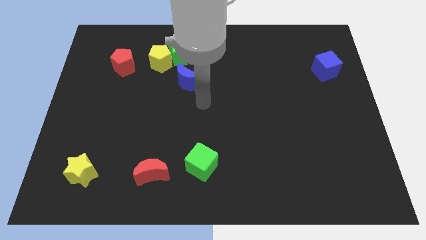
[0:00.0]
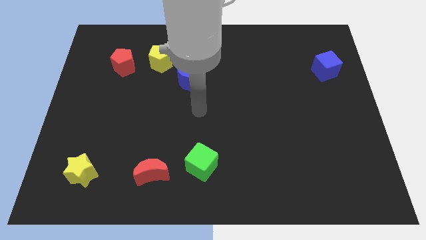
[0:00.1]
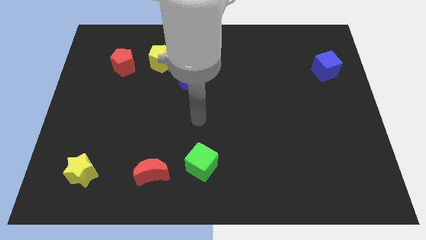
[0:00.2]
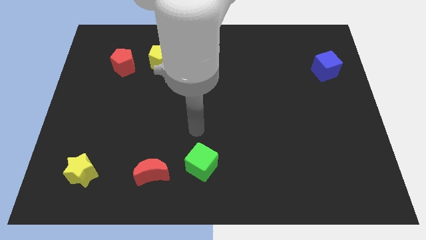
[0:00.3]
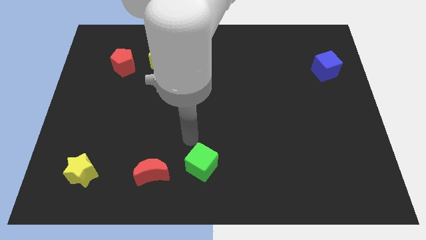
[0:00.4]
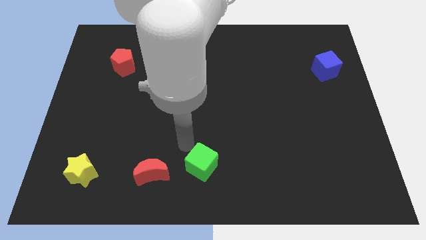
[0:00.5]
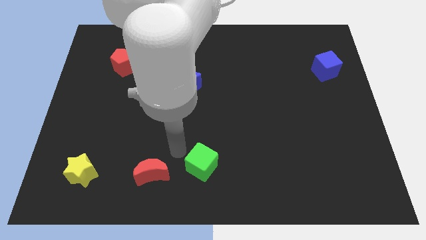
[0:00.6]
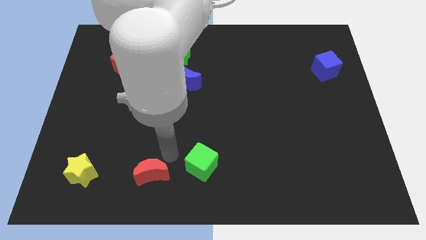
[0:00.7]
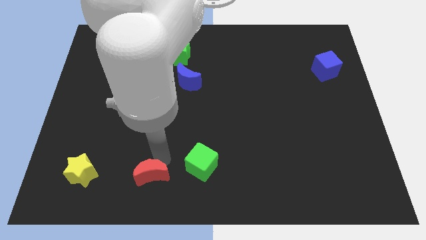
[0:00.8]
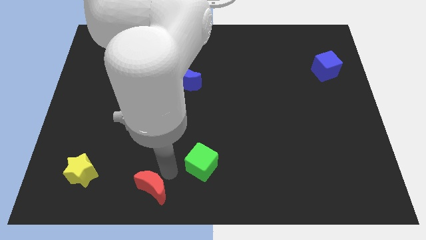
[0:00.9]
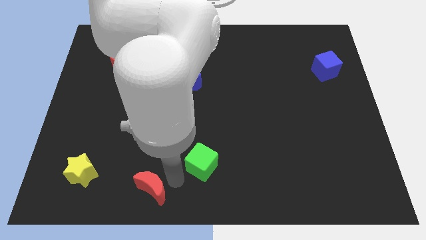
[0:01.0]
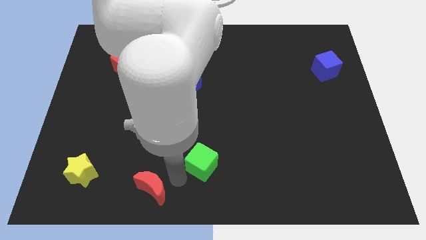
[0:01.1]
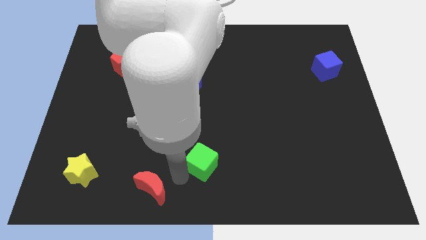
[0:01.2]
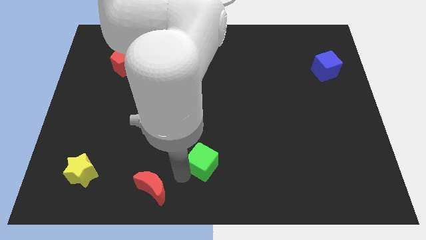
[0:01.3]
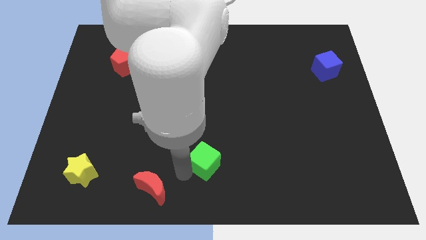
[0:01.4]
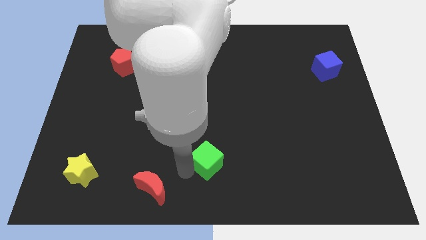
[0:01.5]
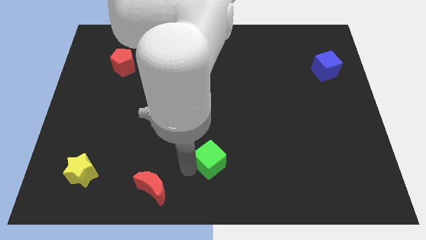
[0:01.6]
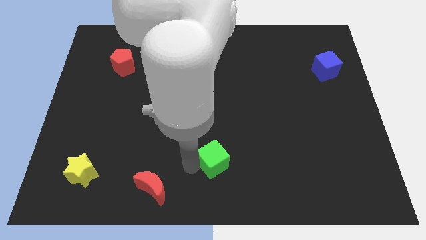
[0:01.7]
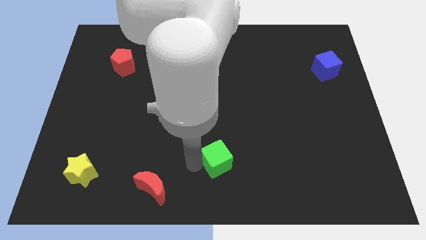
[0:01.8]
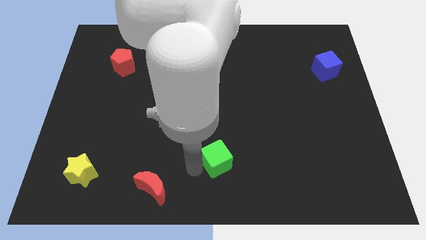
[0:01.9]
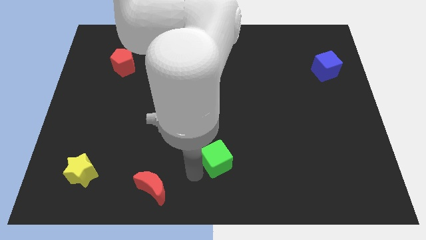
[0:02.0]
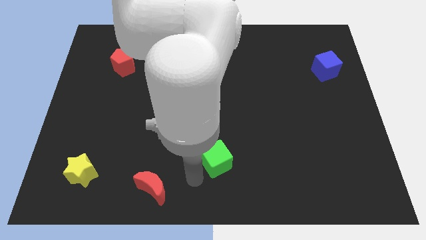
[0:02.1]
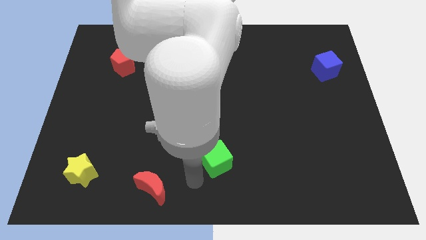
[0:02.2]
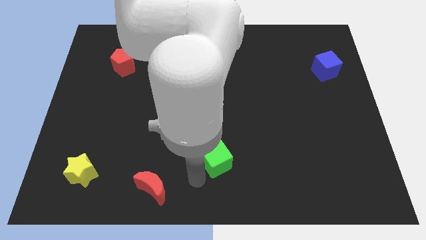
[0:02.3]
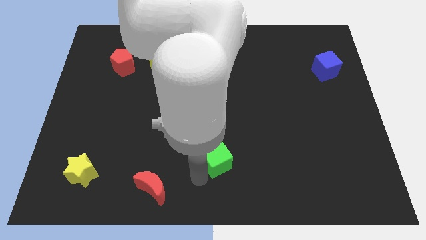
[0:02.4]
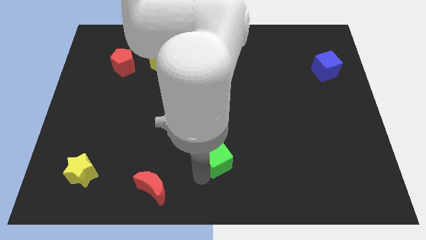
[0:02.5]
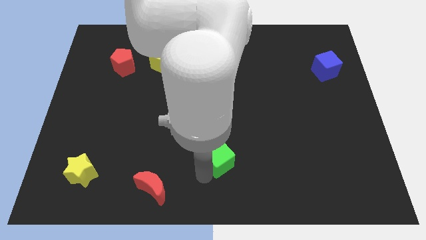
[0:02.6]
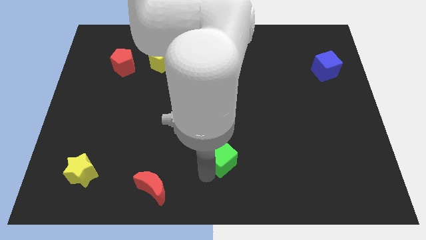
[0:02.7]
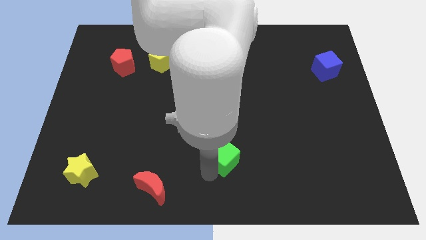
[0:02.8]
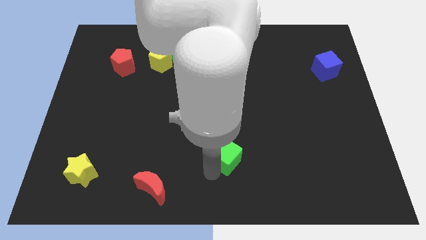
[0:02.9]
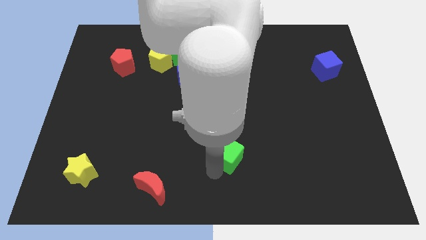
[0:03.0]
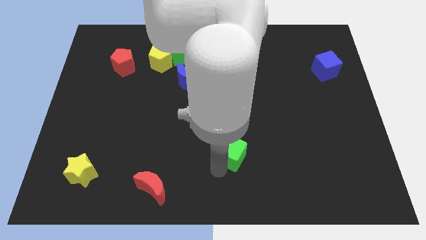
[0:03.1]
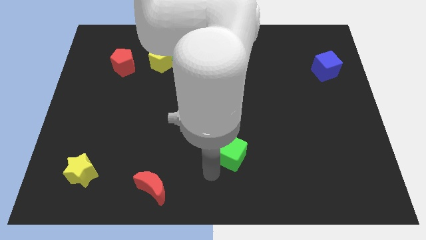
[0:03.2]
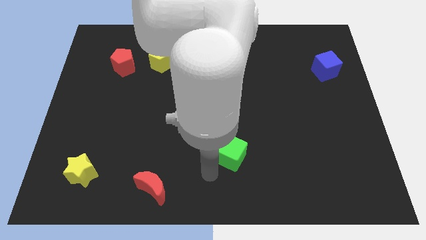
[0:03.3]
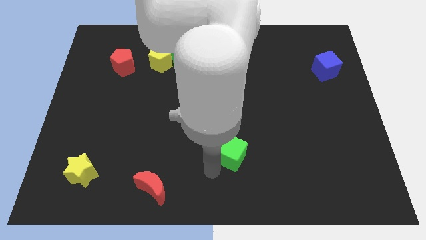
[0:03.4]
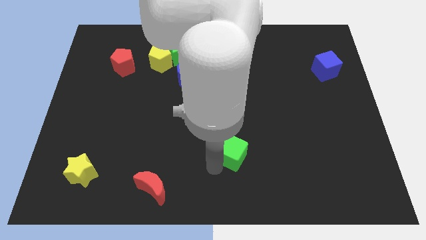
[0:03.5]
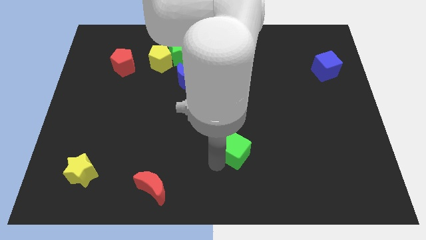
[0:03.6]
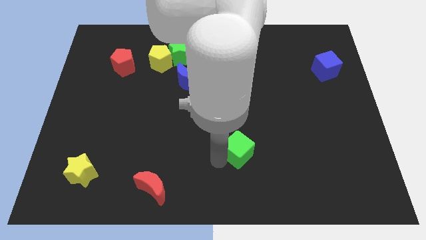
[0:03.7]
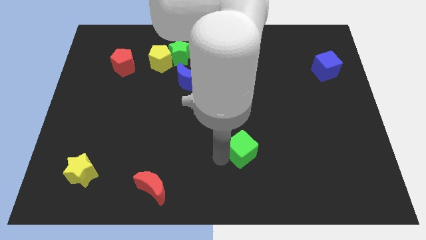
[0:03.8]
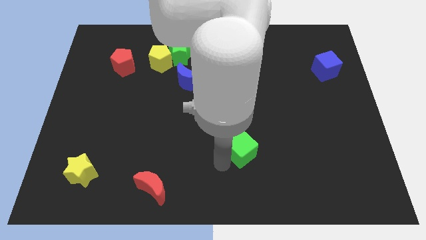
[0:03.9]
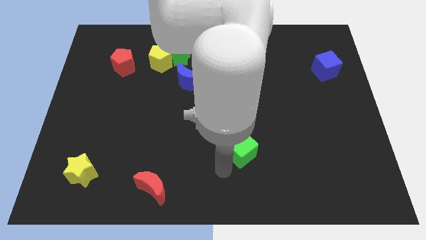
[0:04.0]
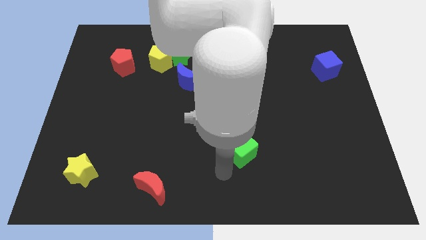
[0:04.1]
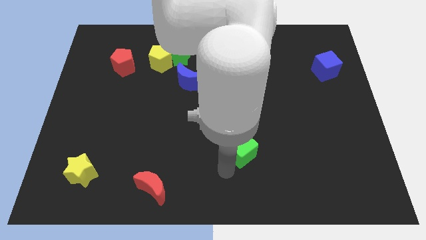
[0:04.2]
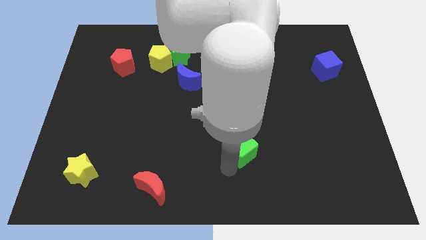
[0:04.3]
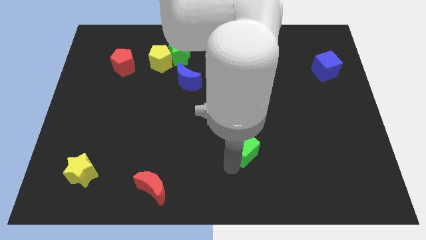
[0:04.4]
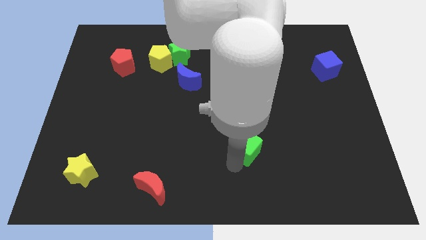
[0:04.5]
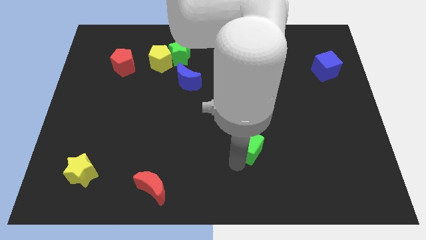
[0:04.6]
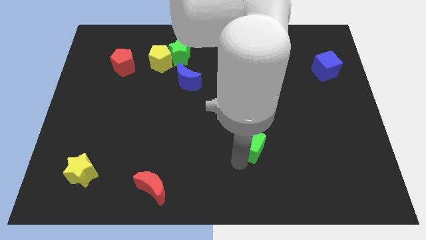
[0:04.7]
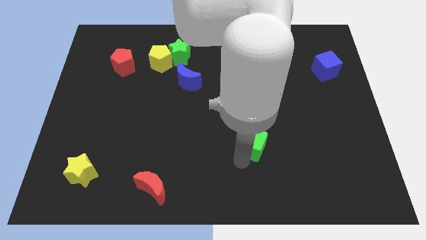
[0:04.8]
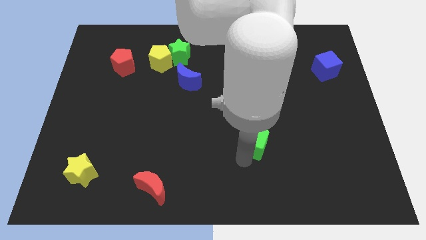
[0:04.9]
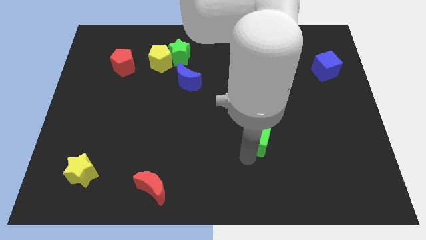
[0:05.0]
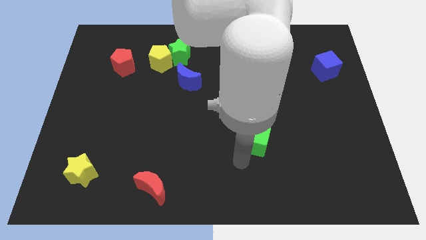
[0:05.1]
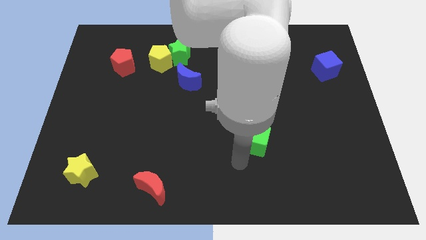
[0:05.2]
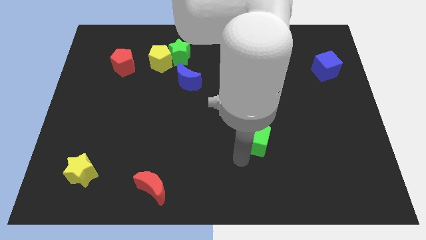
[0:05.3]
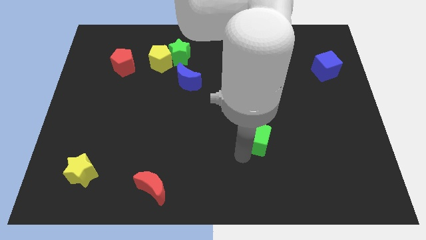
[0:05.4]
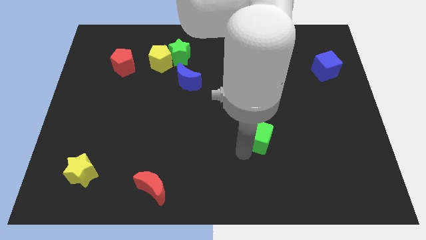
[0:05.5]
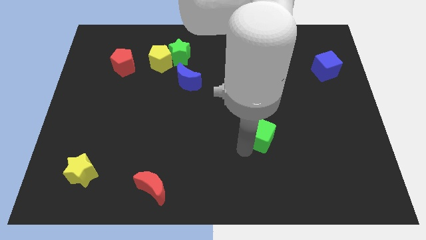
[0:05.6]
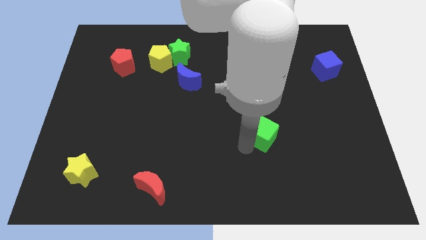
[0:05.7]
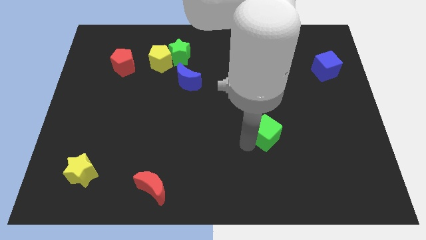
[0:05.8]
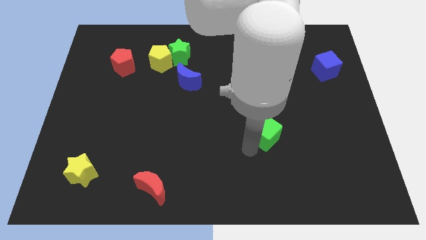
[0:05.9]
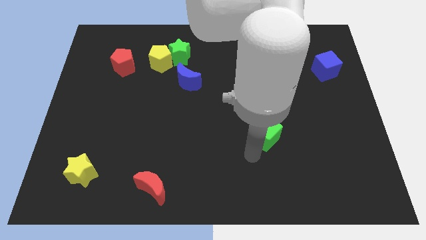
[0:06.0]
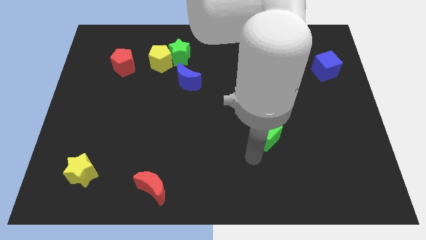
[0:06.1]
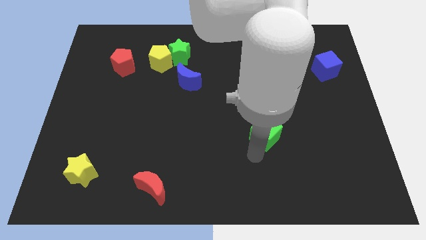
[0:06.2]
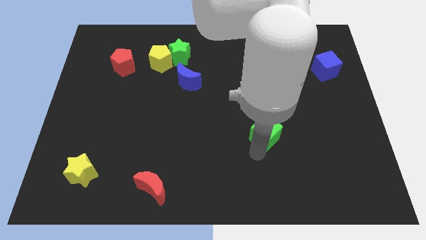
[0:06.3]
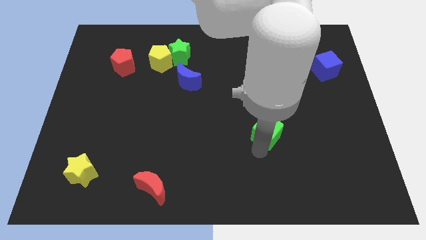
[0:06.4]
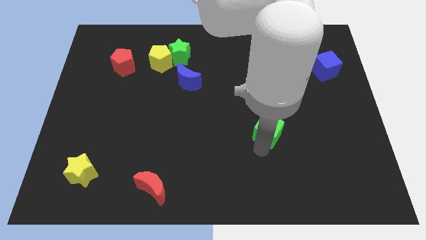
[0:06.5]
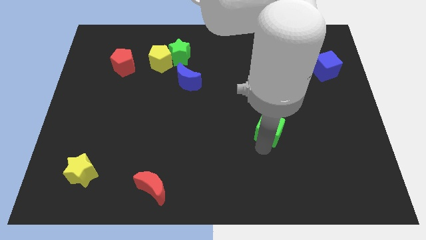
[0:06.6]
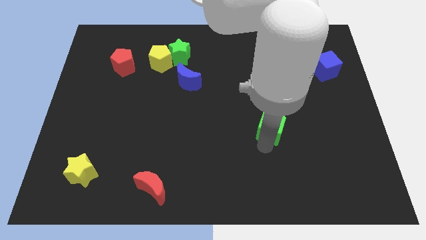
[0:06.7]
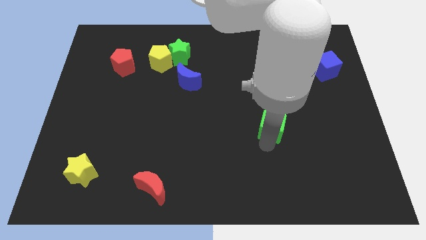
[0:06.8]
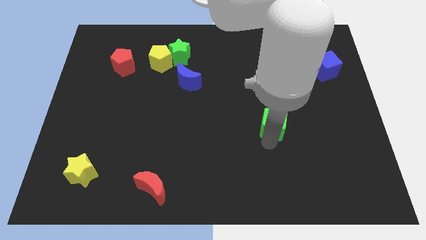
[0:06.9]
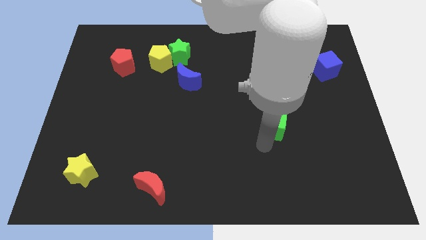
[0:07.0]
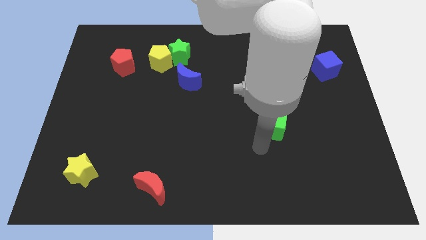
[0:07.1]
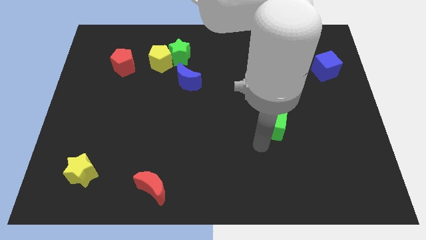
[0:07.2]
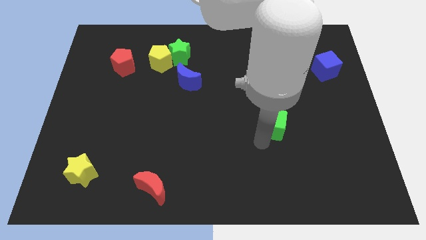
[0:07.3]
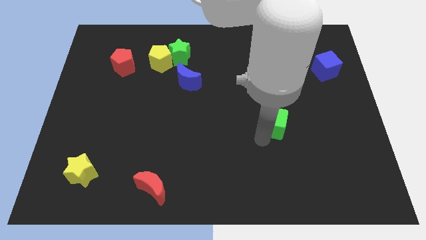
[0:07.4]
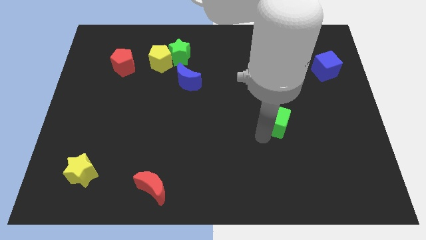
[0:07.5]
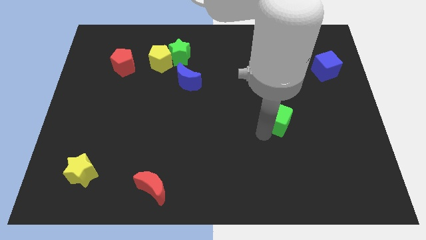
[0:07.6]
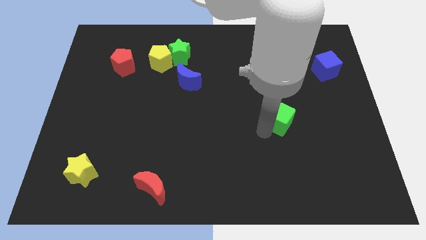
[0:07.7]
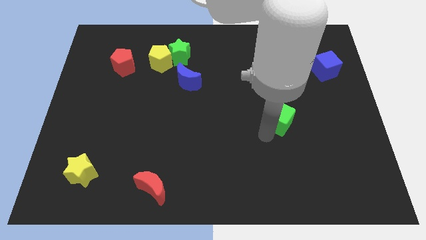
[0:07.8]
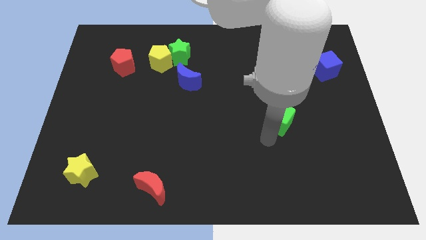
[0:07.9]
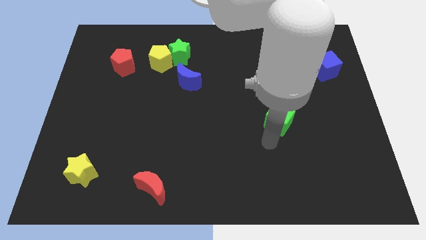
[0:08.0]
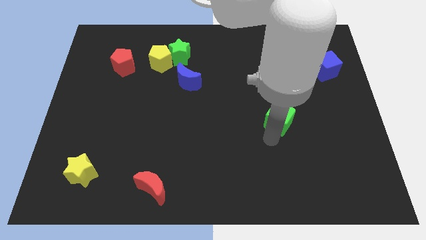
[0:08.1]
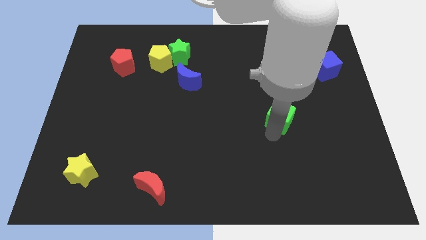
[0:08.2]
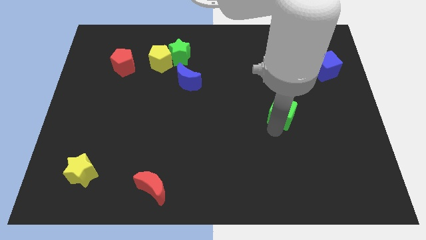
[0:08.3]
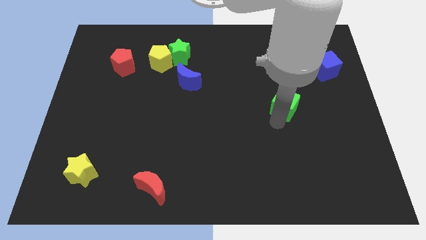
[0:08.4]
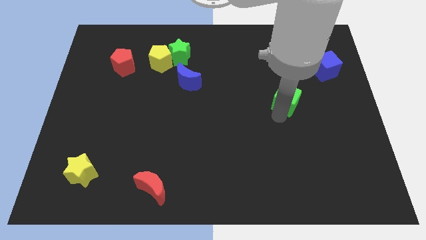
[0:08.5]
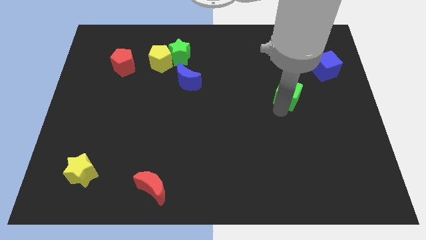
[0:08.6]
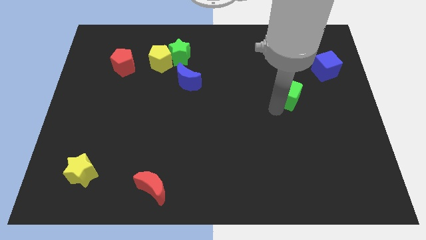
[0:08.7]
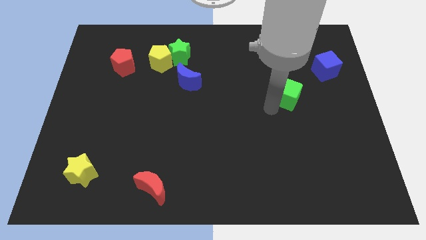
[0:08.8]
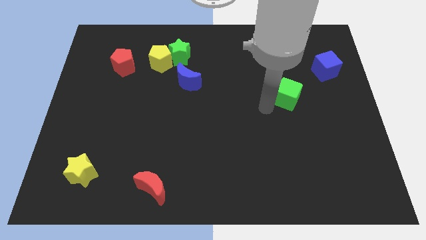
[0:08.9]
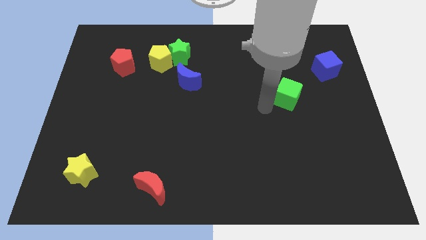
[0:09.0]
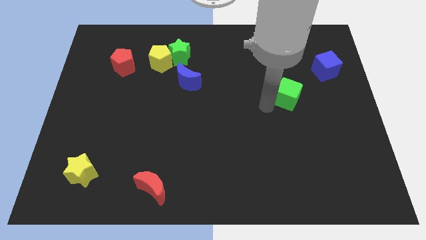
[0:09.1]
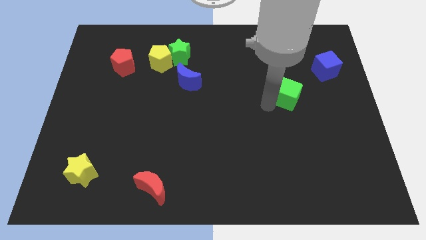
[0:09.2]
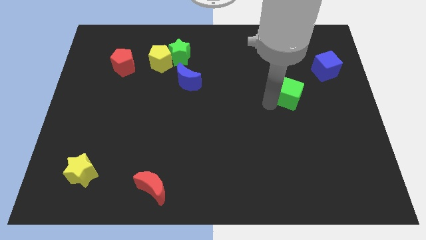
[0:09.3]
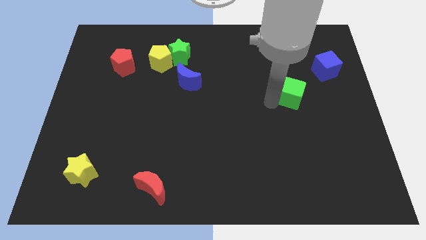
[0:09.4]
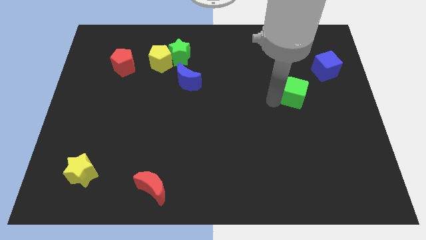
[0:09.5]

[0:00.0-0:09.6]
put the green cube to the bottom left of the blue cube
